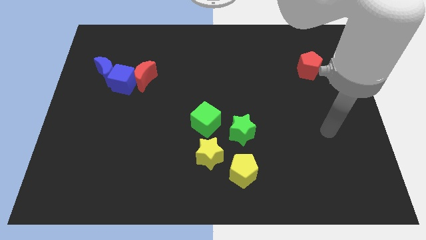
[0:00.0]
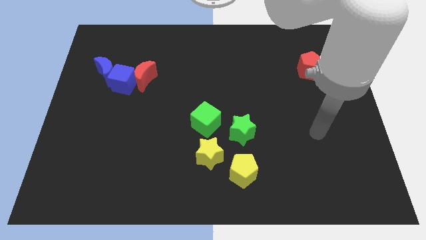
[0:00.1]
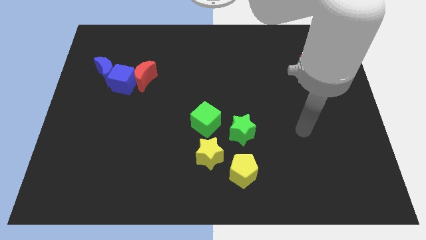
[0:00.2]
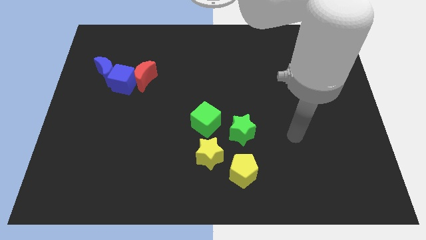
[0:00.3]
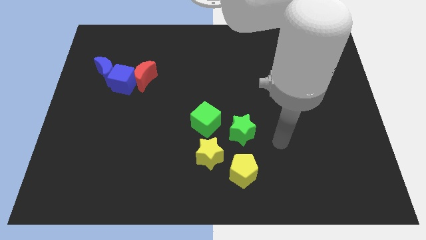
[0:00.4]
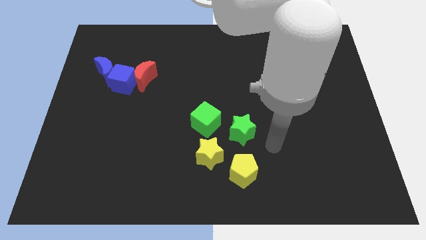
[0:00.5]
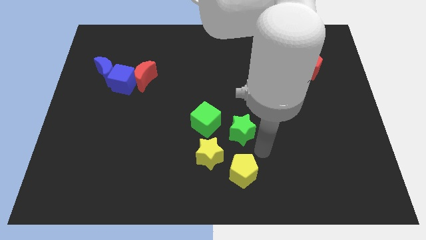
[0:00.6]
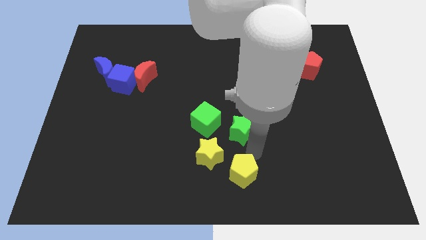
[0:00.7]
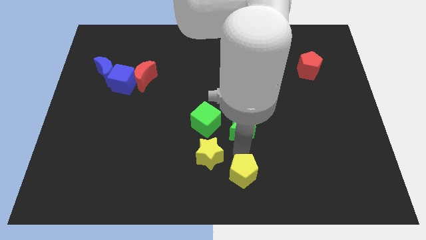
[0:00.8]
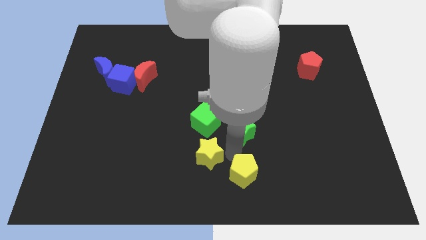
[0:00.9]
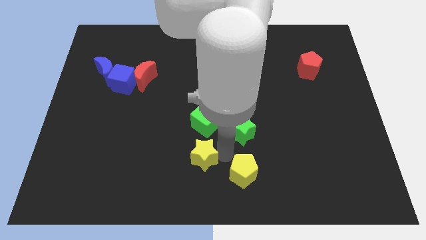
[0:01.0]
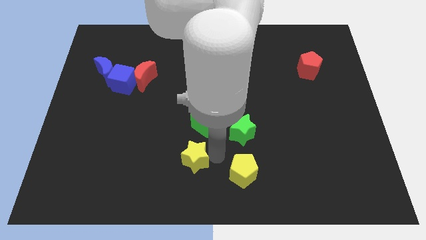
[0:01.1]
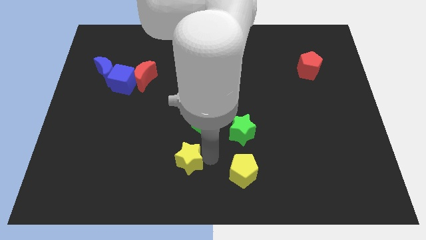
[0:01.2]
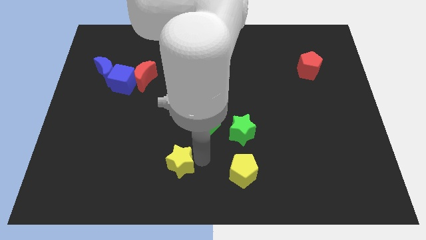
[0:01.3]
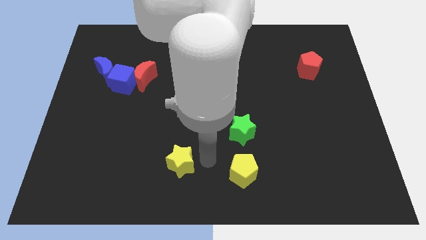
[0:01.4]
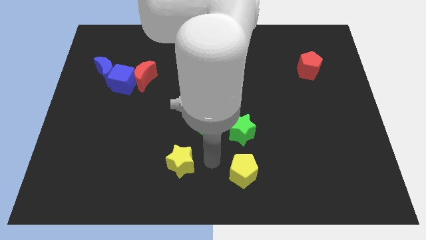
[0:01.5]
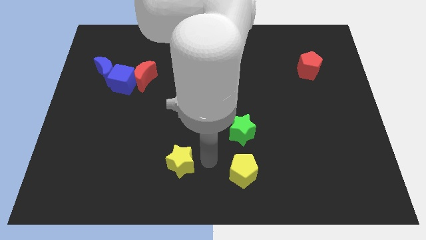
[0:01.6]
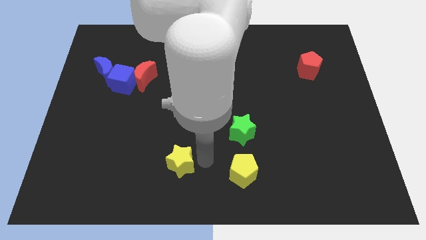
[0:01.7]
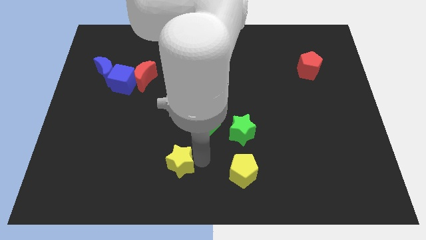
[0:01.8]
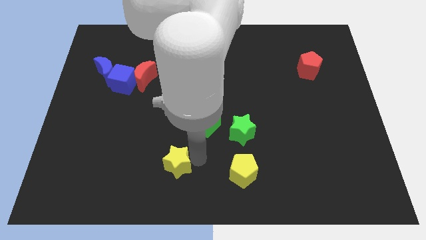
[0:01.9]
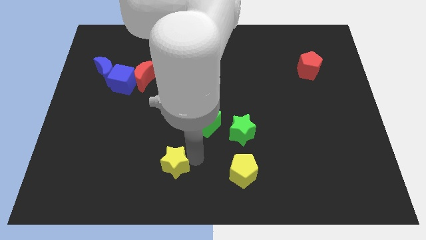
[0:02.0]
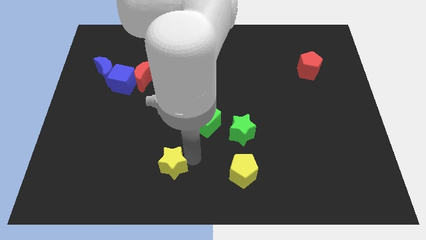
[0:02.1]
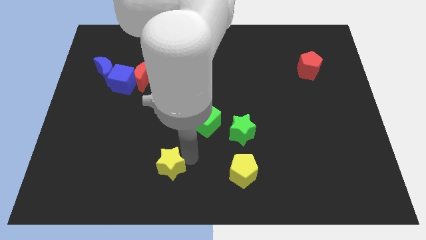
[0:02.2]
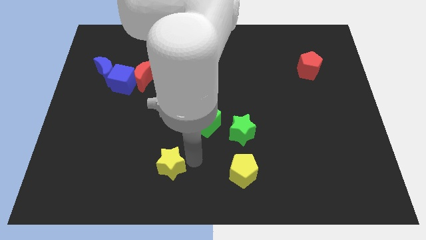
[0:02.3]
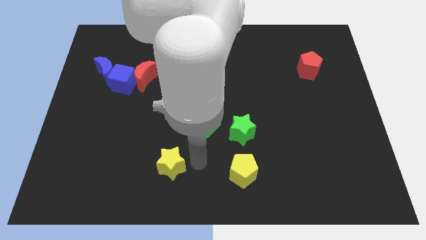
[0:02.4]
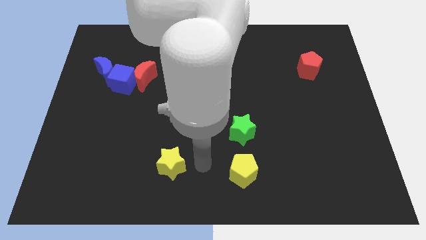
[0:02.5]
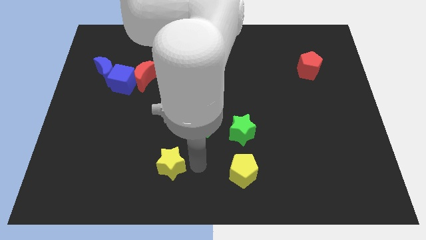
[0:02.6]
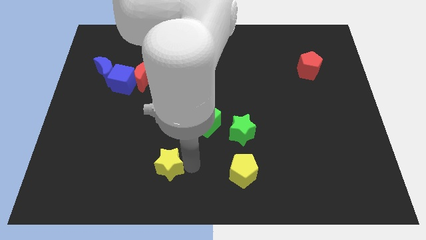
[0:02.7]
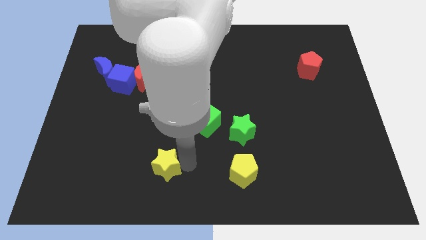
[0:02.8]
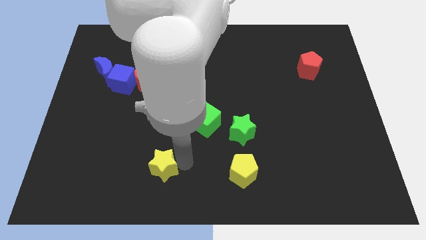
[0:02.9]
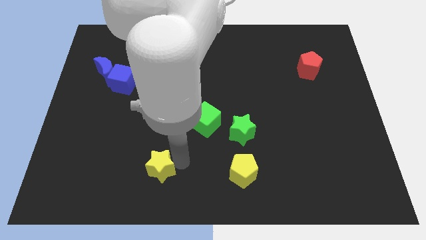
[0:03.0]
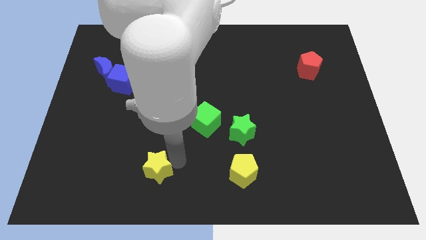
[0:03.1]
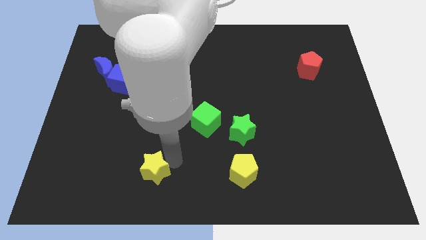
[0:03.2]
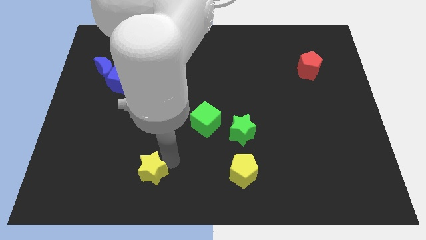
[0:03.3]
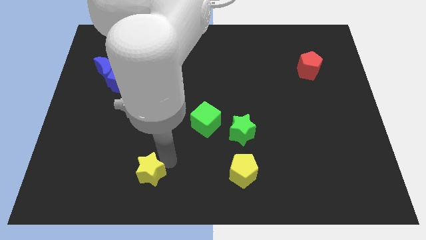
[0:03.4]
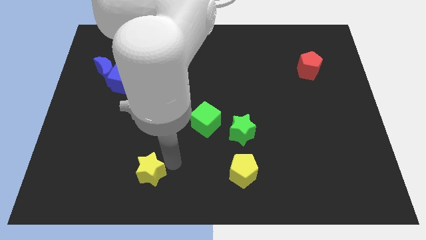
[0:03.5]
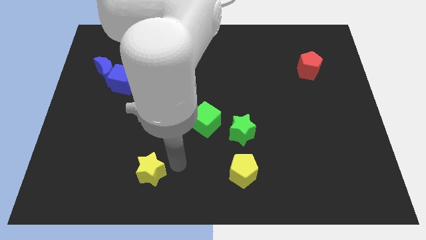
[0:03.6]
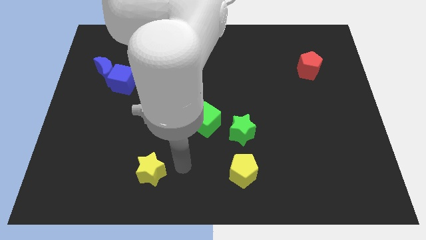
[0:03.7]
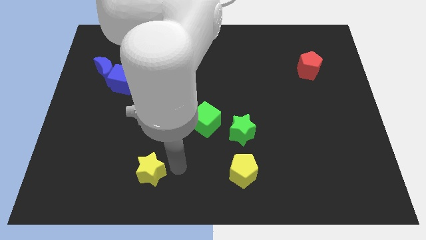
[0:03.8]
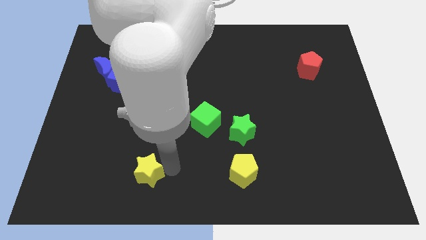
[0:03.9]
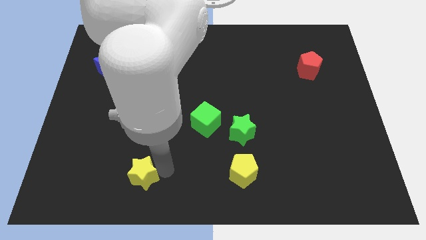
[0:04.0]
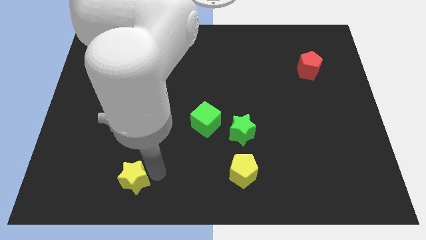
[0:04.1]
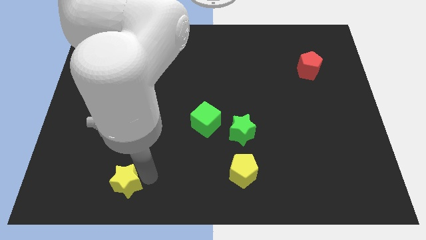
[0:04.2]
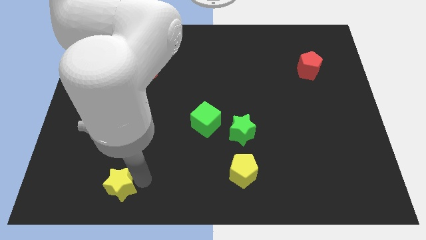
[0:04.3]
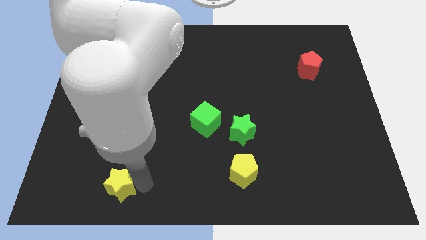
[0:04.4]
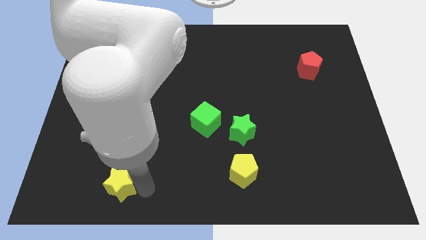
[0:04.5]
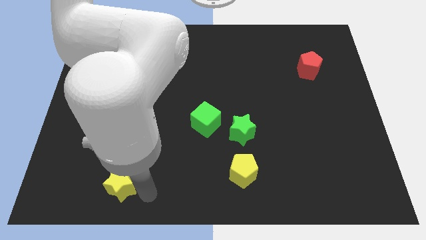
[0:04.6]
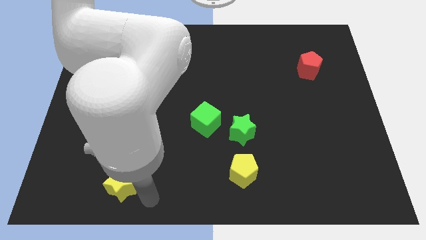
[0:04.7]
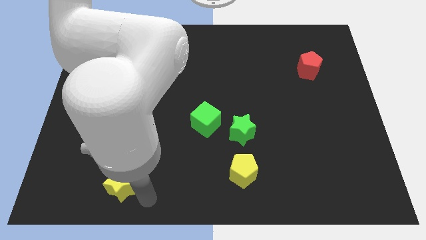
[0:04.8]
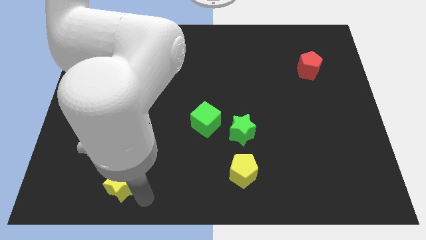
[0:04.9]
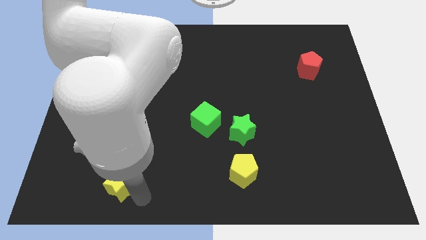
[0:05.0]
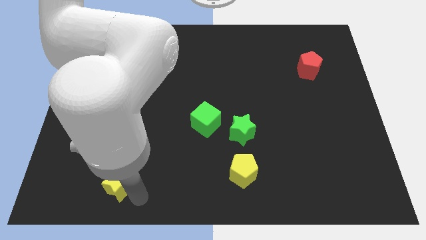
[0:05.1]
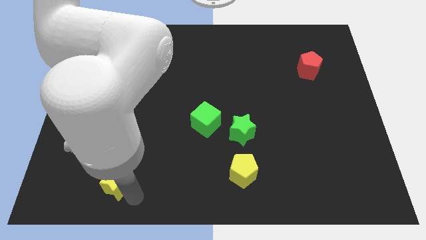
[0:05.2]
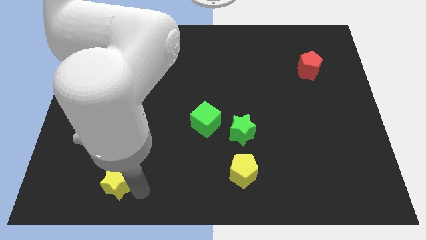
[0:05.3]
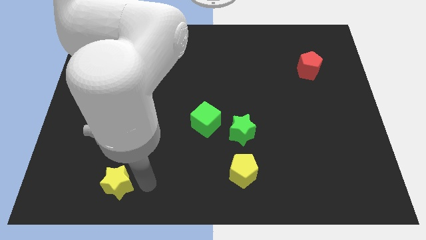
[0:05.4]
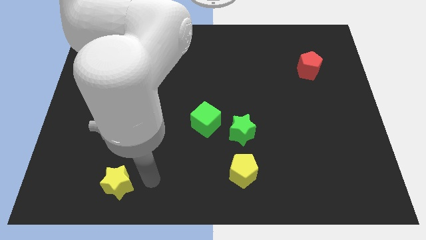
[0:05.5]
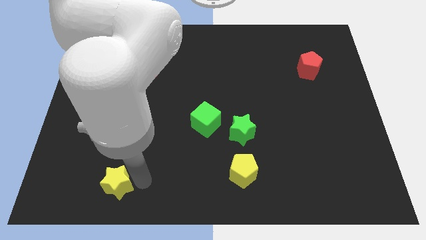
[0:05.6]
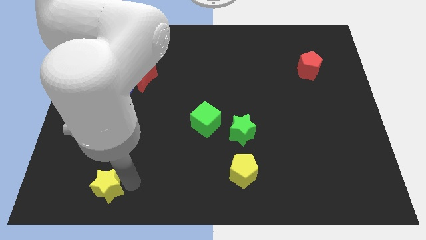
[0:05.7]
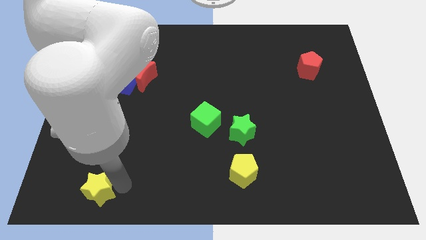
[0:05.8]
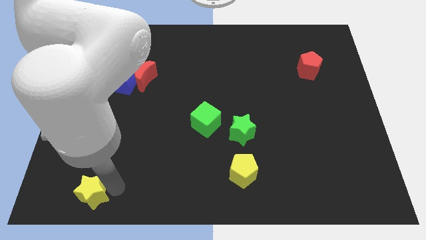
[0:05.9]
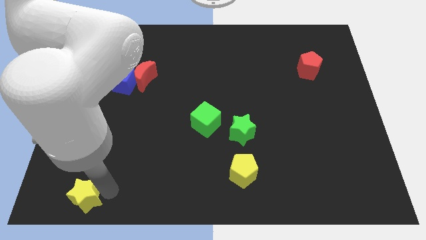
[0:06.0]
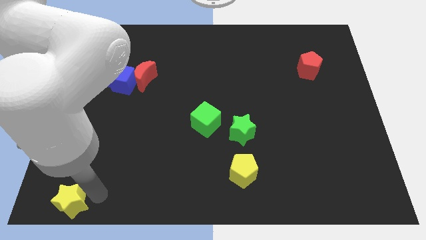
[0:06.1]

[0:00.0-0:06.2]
move the yellow star to the bottom left
